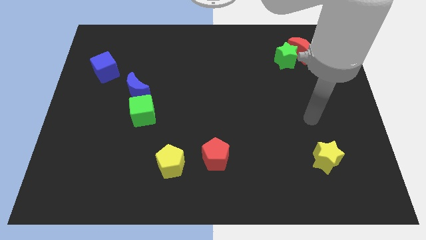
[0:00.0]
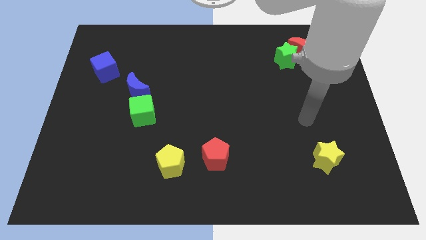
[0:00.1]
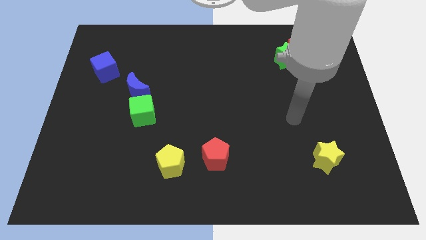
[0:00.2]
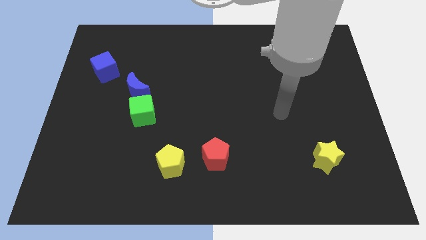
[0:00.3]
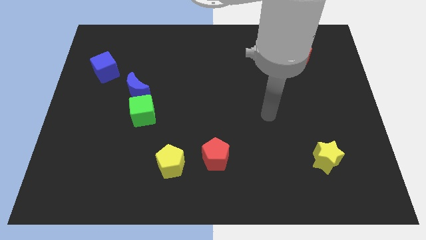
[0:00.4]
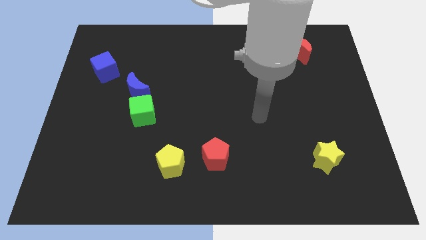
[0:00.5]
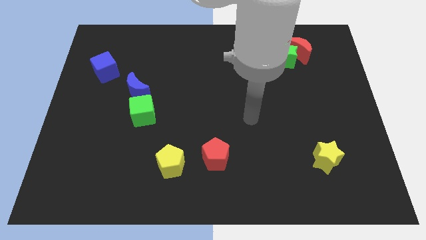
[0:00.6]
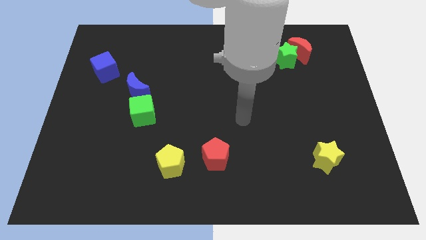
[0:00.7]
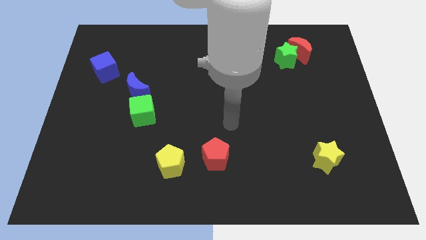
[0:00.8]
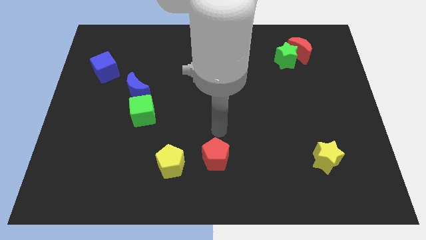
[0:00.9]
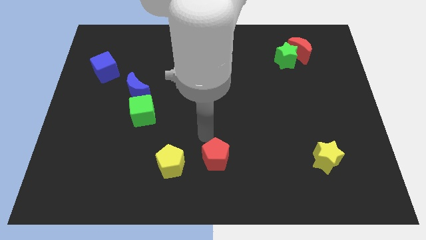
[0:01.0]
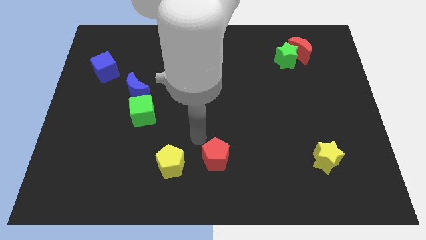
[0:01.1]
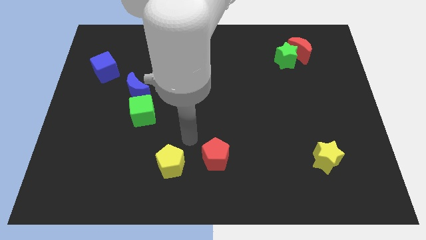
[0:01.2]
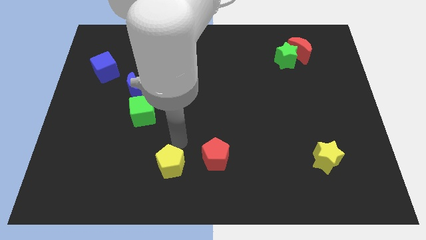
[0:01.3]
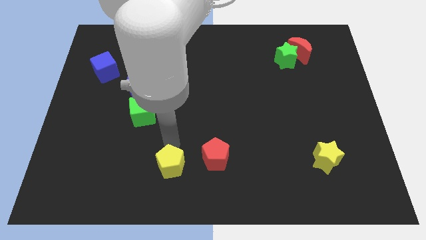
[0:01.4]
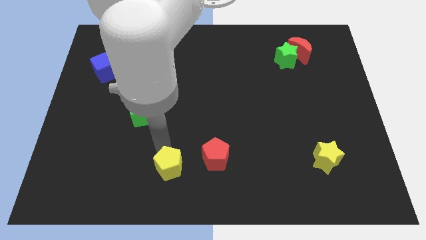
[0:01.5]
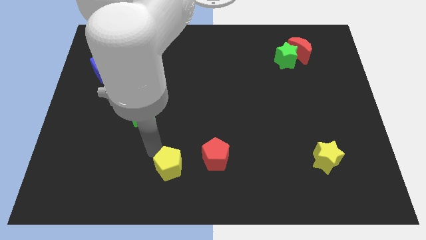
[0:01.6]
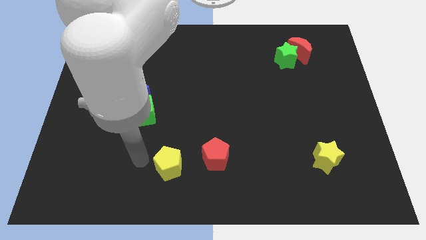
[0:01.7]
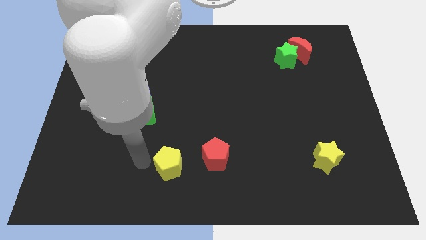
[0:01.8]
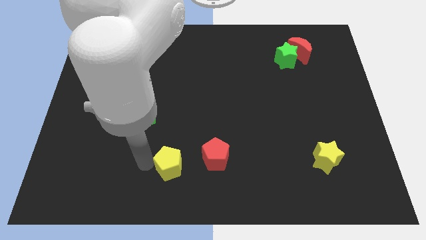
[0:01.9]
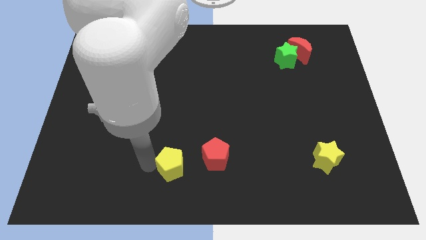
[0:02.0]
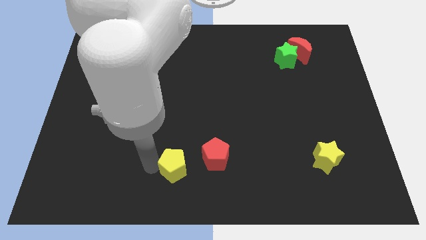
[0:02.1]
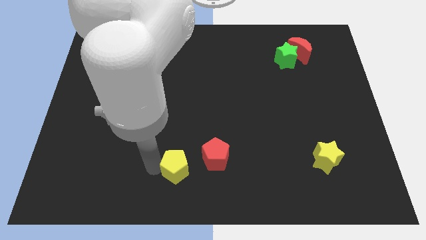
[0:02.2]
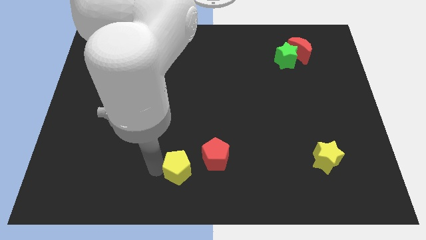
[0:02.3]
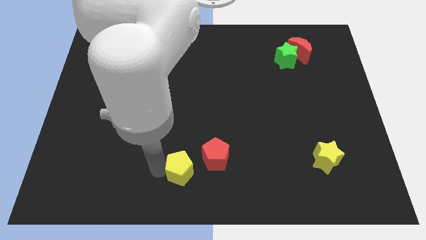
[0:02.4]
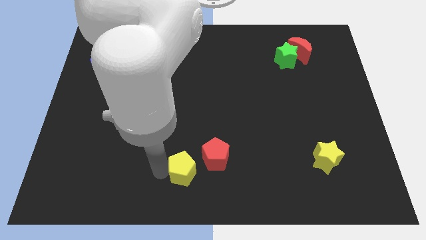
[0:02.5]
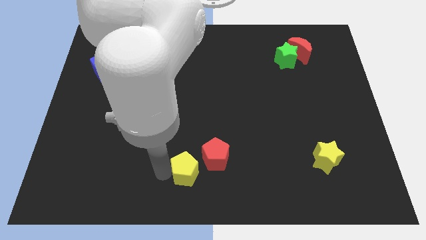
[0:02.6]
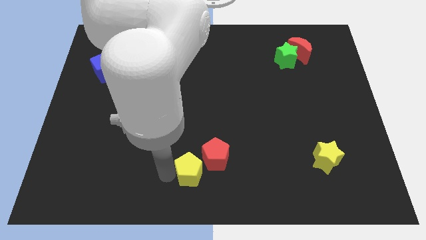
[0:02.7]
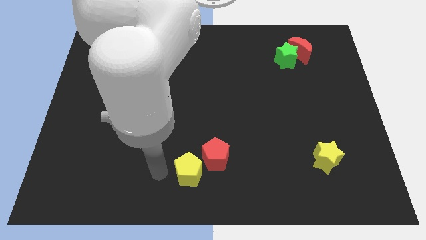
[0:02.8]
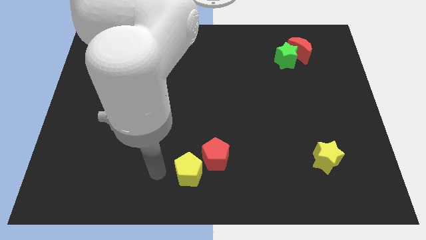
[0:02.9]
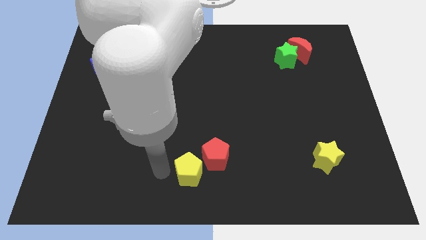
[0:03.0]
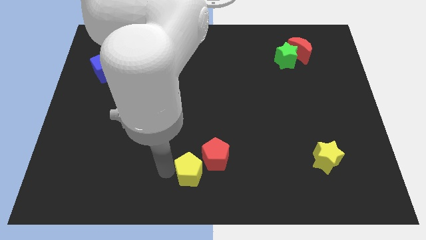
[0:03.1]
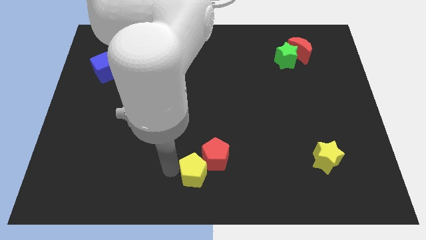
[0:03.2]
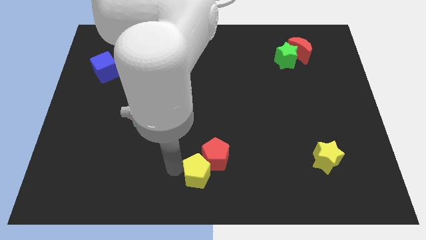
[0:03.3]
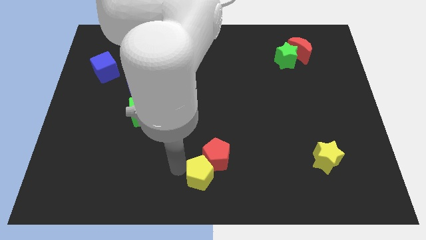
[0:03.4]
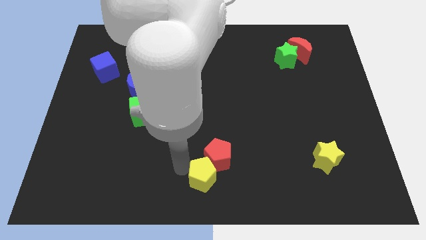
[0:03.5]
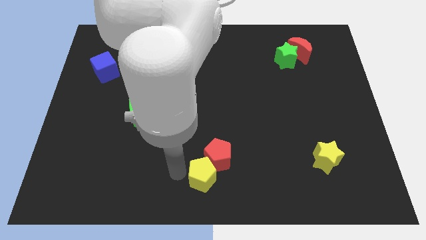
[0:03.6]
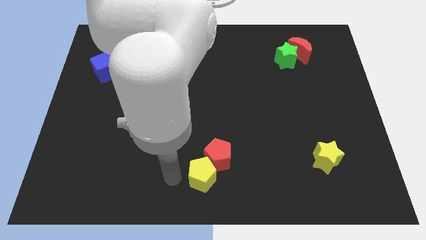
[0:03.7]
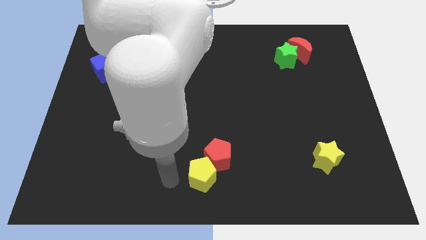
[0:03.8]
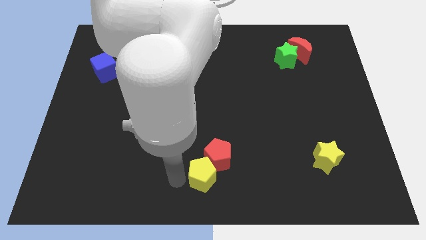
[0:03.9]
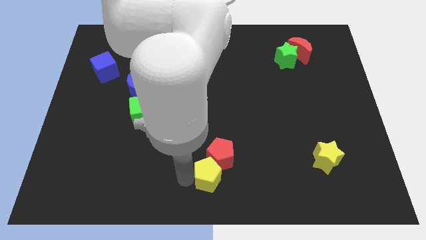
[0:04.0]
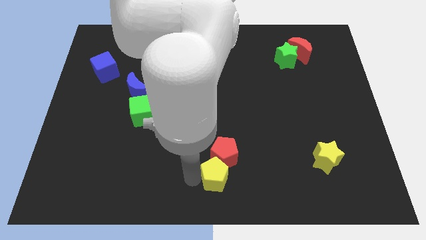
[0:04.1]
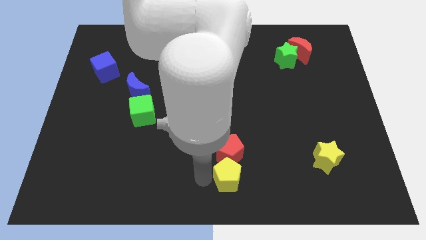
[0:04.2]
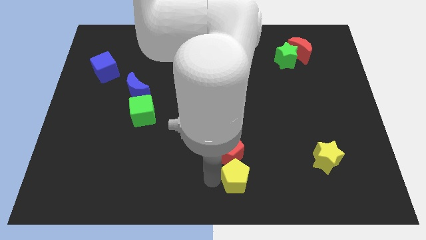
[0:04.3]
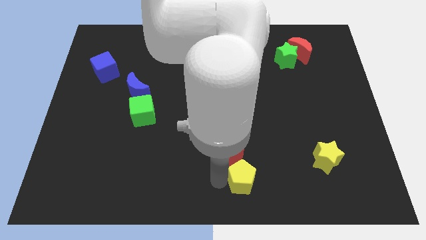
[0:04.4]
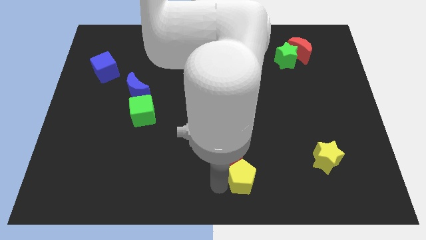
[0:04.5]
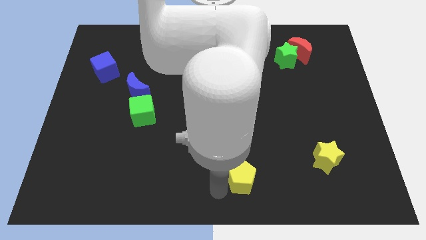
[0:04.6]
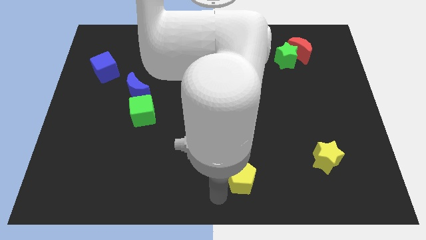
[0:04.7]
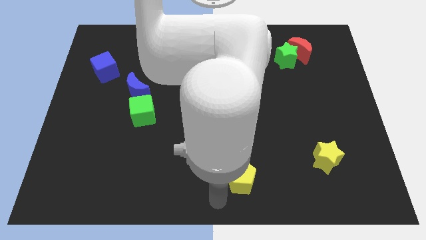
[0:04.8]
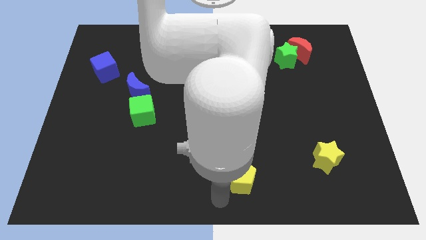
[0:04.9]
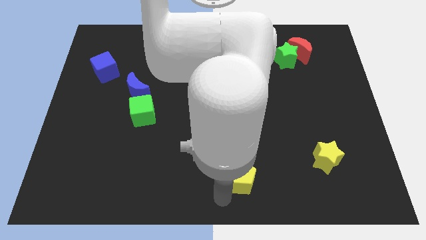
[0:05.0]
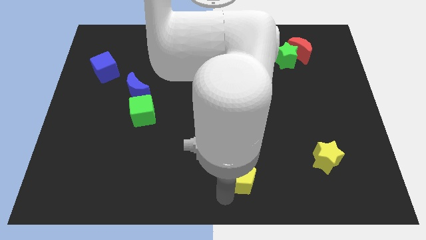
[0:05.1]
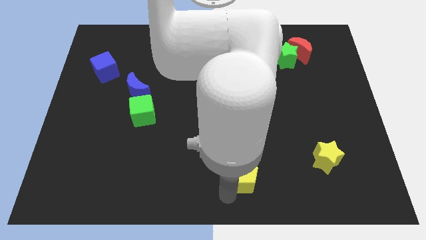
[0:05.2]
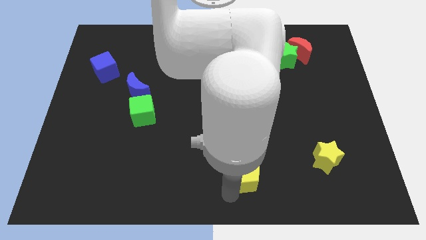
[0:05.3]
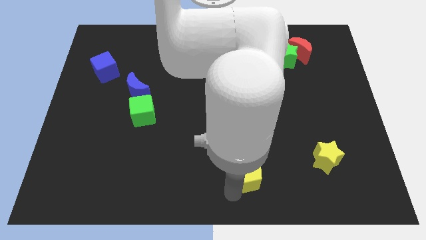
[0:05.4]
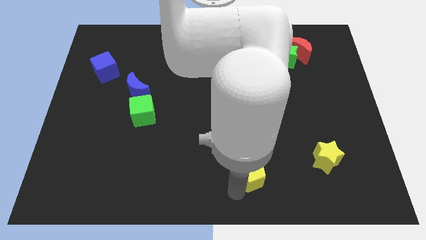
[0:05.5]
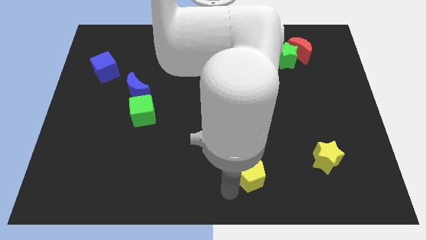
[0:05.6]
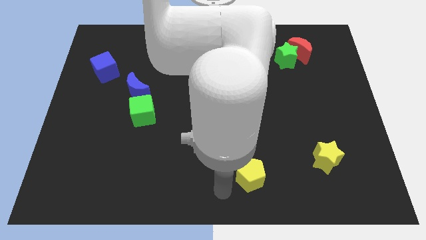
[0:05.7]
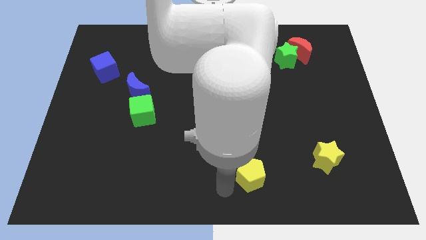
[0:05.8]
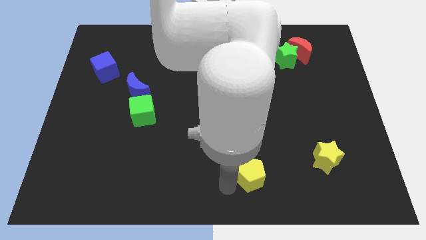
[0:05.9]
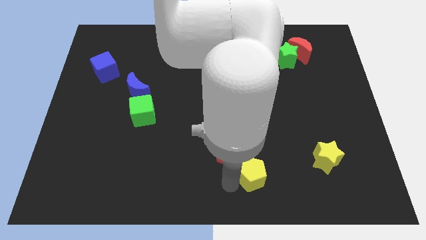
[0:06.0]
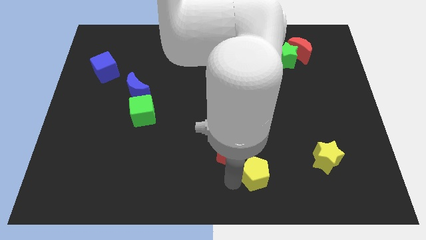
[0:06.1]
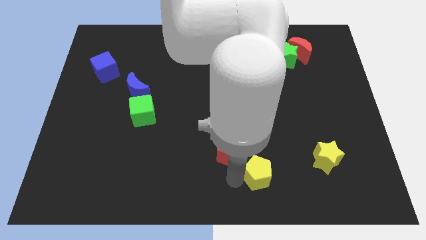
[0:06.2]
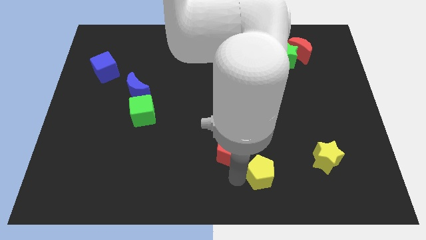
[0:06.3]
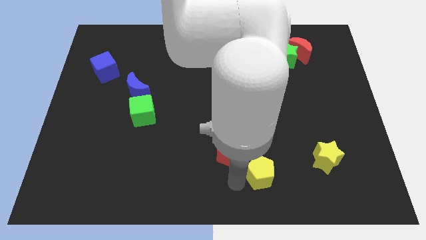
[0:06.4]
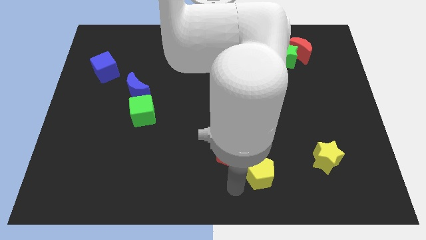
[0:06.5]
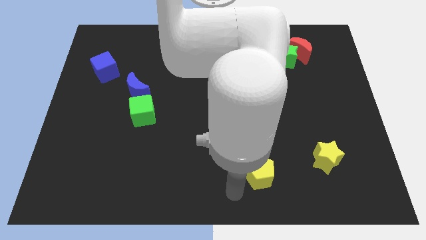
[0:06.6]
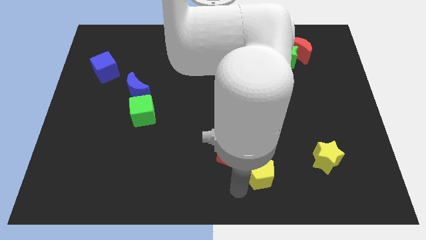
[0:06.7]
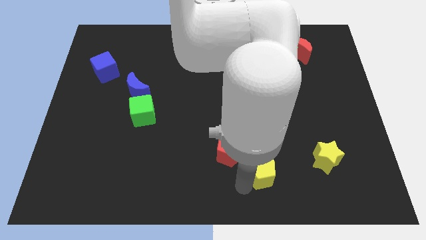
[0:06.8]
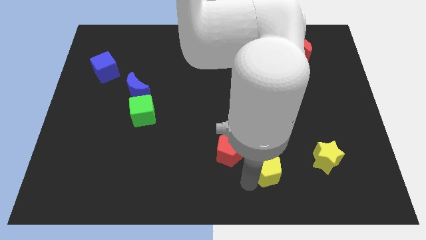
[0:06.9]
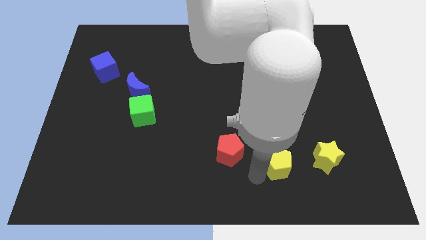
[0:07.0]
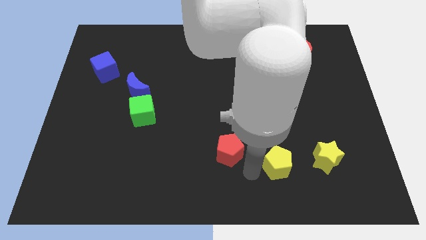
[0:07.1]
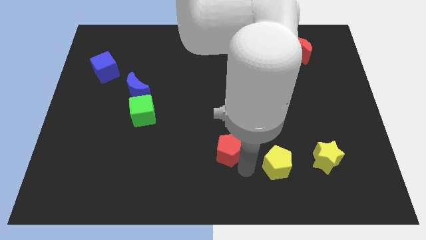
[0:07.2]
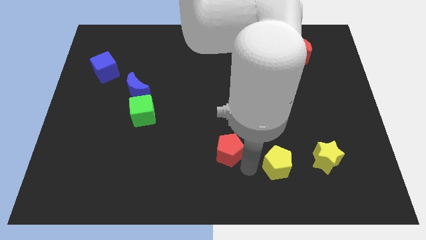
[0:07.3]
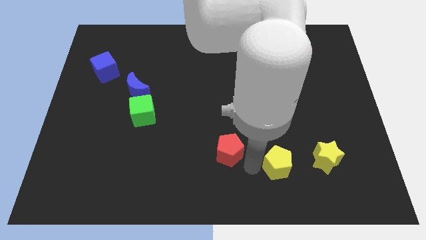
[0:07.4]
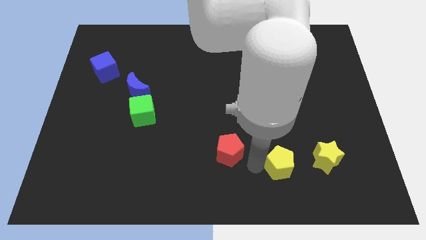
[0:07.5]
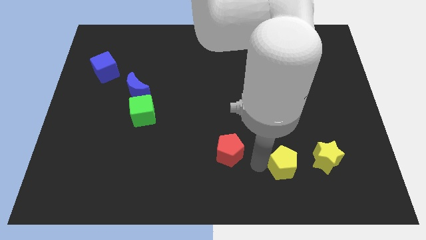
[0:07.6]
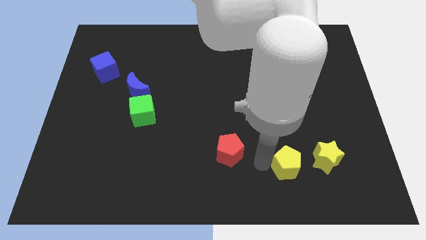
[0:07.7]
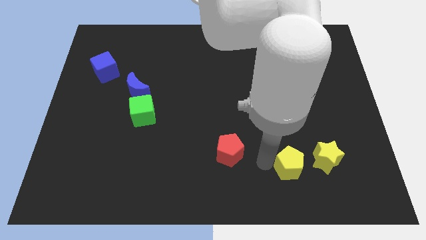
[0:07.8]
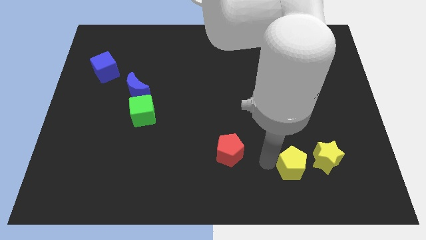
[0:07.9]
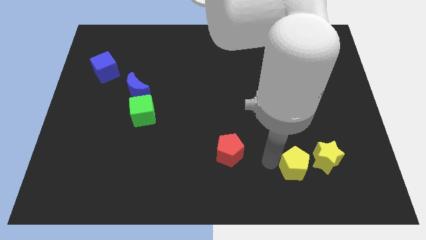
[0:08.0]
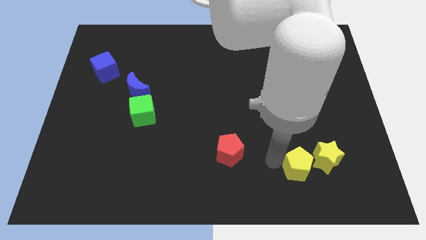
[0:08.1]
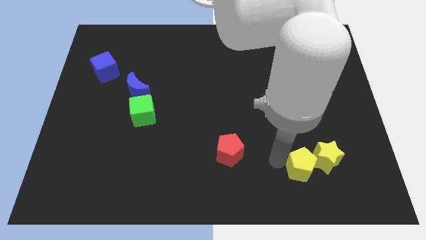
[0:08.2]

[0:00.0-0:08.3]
push the yellow pentagon to the yellow star
